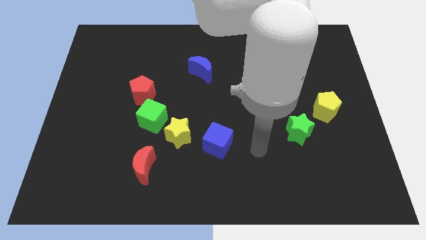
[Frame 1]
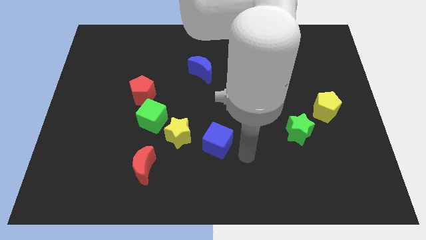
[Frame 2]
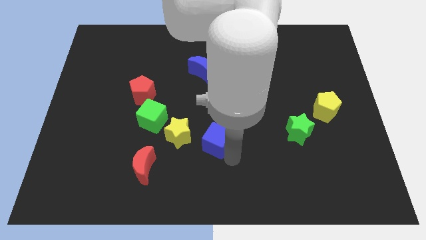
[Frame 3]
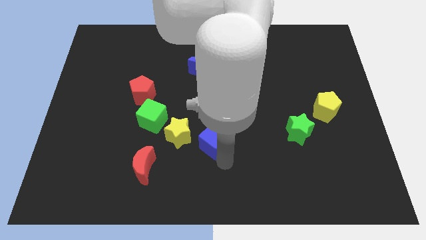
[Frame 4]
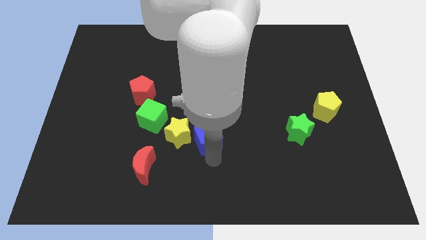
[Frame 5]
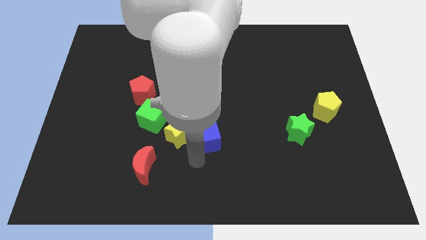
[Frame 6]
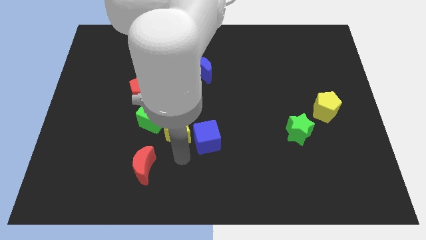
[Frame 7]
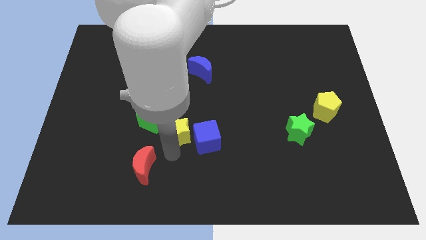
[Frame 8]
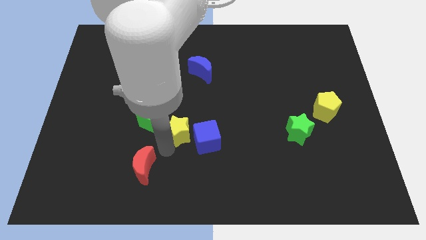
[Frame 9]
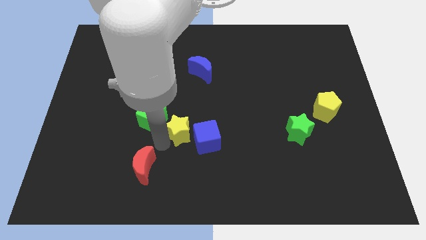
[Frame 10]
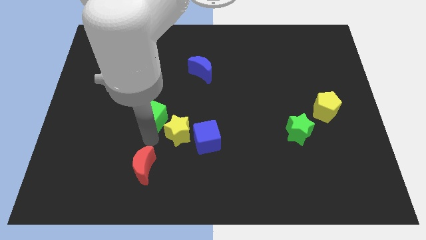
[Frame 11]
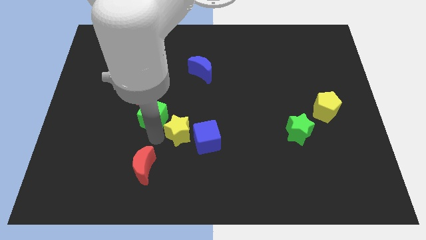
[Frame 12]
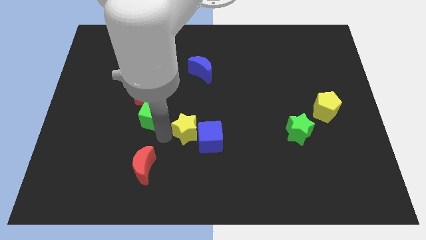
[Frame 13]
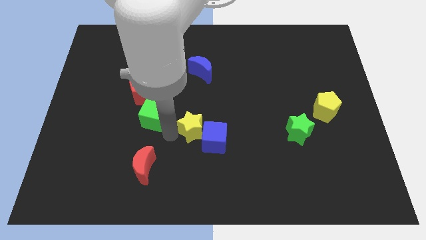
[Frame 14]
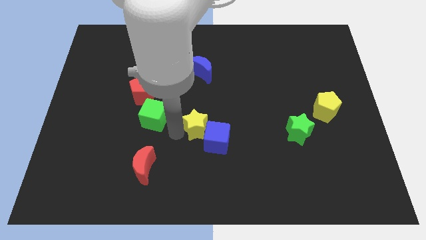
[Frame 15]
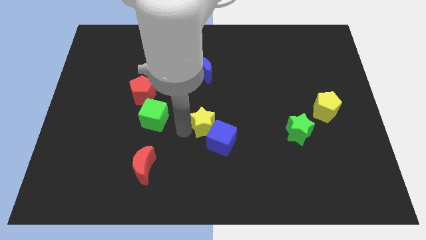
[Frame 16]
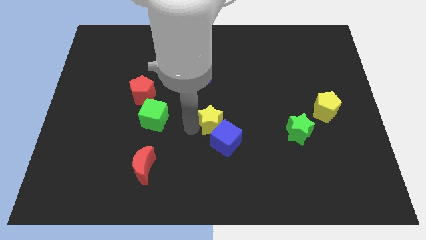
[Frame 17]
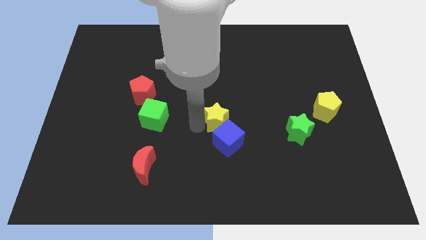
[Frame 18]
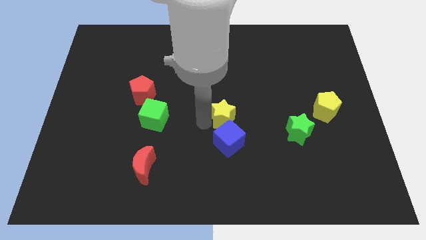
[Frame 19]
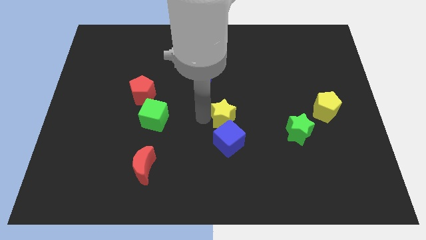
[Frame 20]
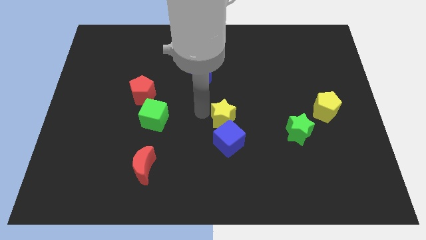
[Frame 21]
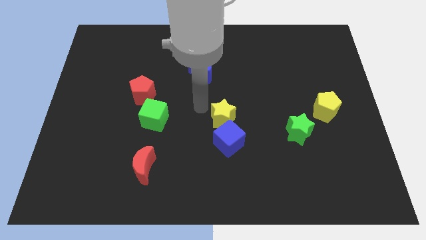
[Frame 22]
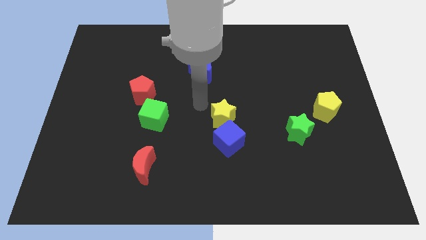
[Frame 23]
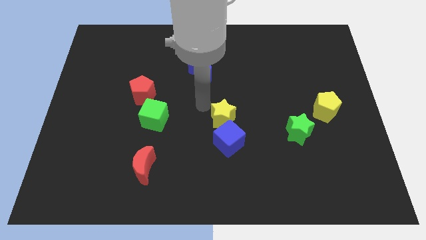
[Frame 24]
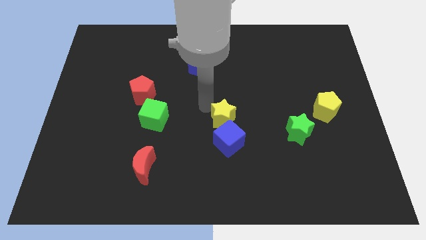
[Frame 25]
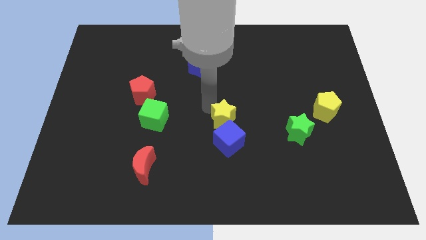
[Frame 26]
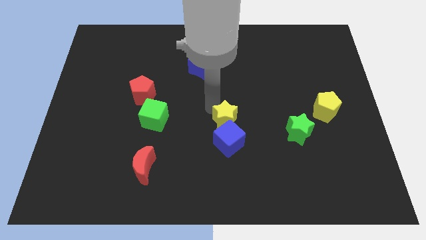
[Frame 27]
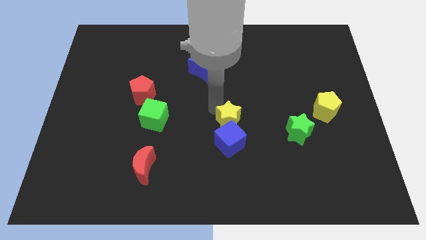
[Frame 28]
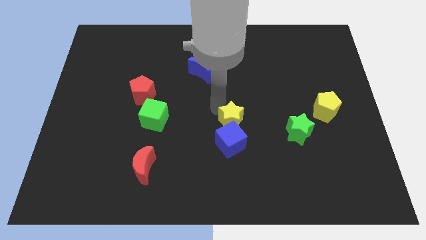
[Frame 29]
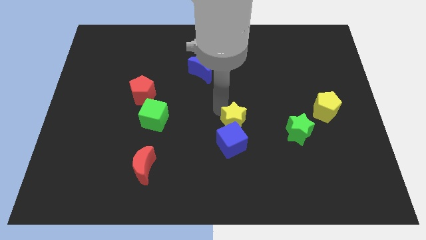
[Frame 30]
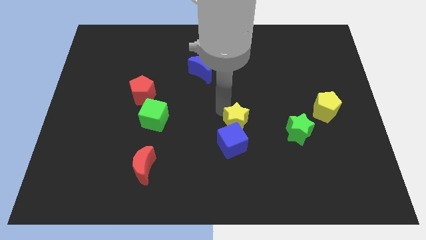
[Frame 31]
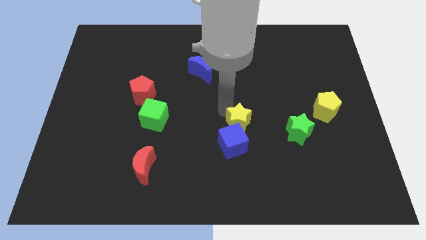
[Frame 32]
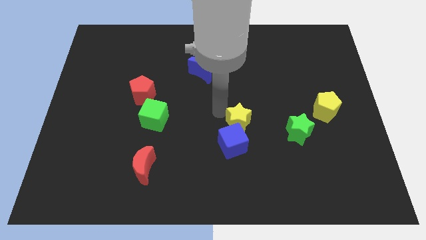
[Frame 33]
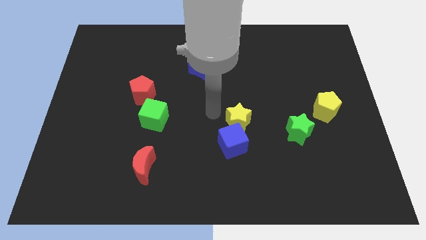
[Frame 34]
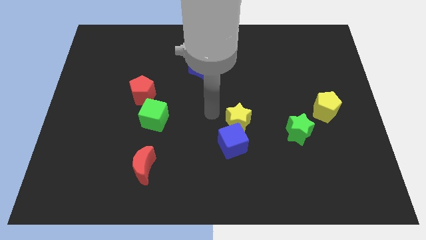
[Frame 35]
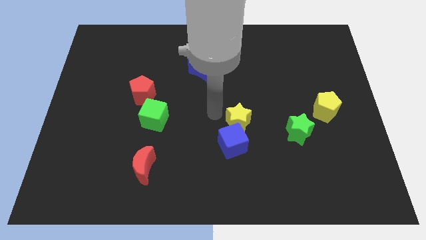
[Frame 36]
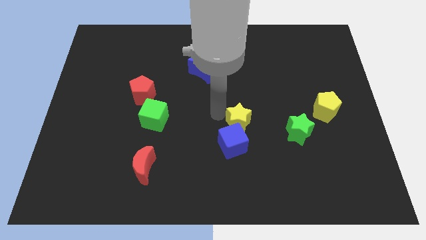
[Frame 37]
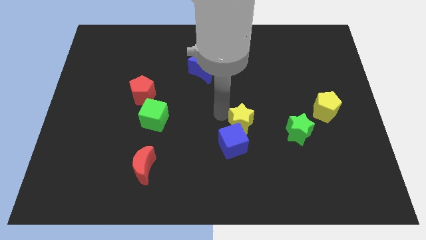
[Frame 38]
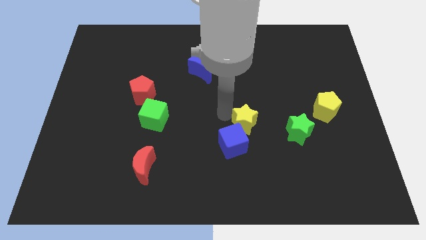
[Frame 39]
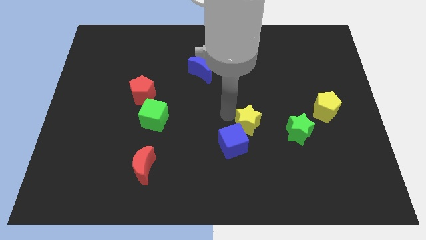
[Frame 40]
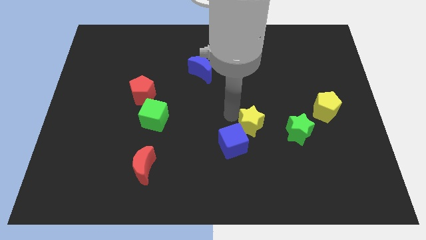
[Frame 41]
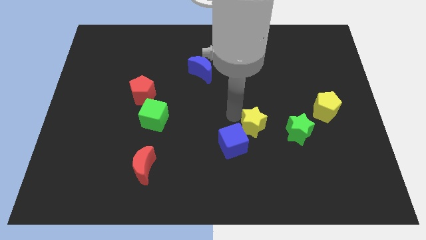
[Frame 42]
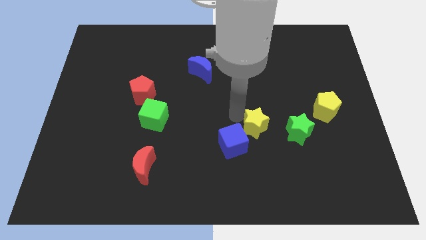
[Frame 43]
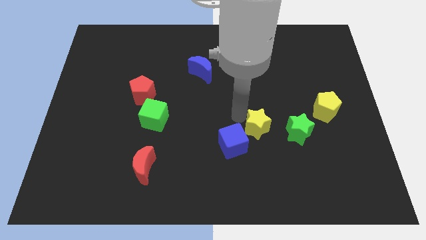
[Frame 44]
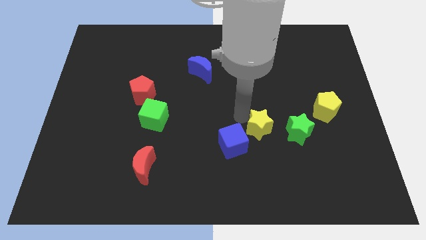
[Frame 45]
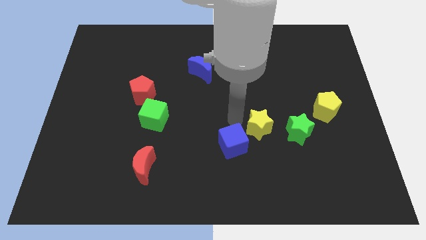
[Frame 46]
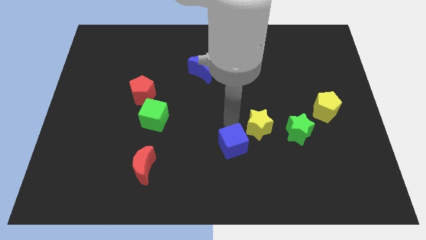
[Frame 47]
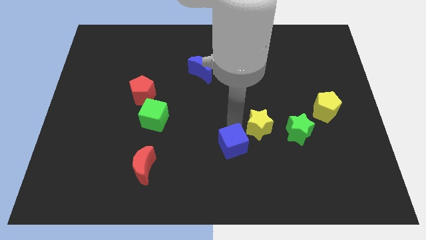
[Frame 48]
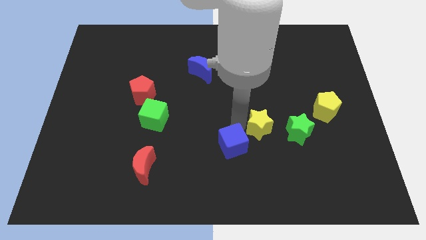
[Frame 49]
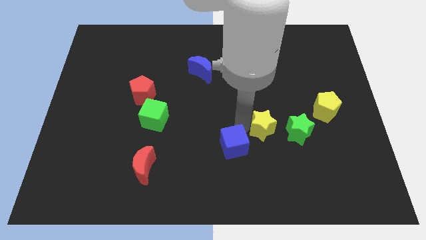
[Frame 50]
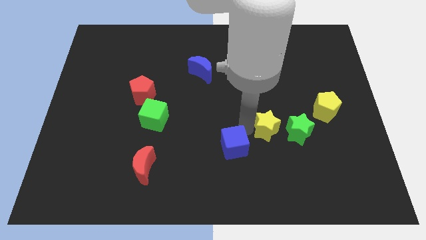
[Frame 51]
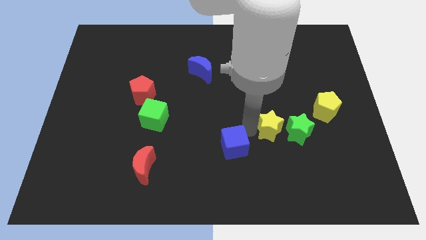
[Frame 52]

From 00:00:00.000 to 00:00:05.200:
put the yellow star towards the green star

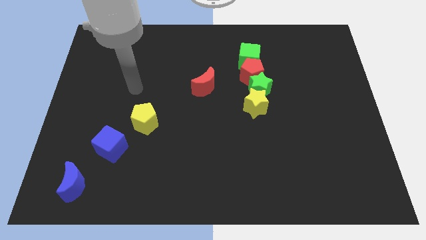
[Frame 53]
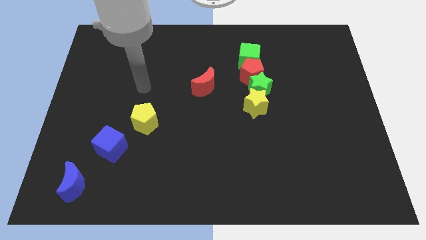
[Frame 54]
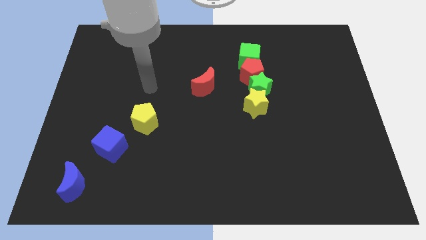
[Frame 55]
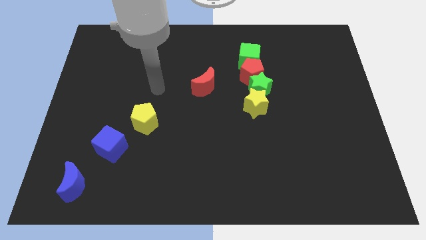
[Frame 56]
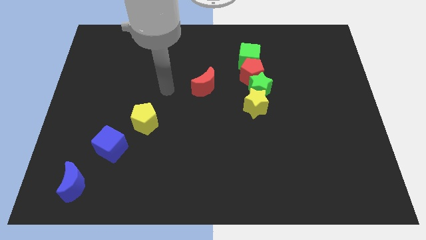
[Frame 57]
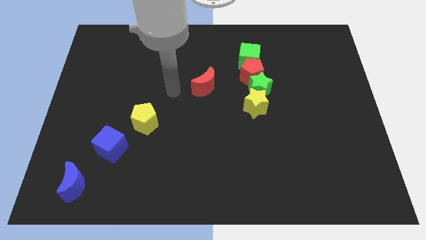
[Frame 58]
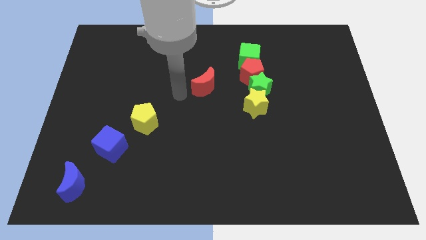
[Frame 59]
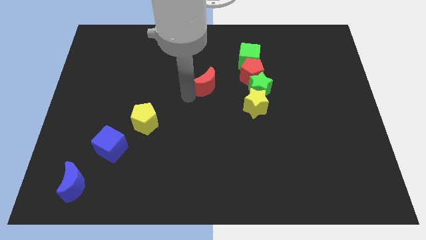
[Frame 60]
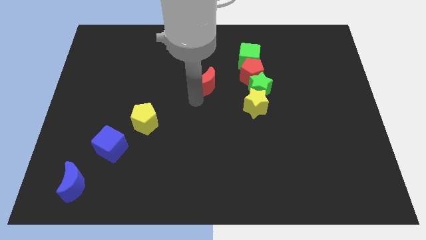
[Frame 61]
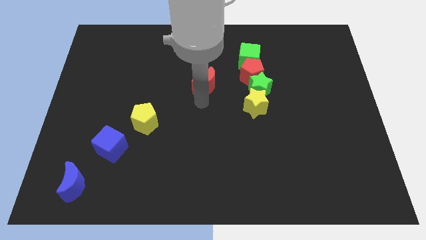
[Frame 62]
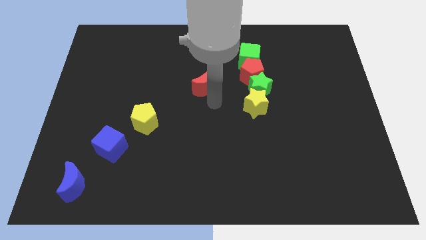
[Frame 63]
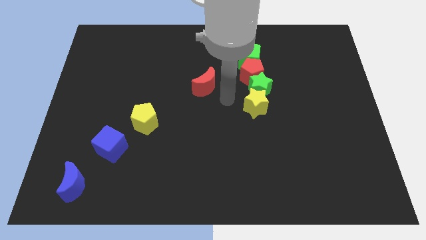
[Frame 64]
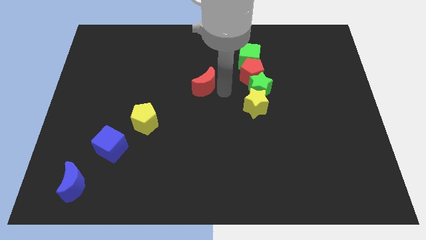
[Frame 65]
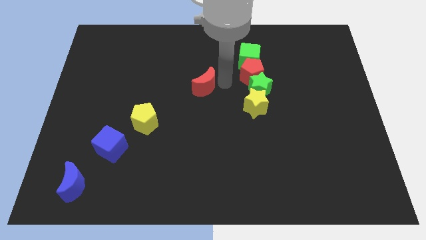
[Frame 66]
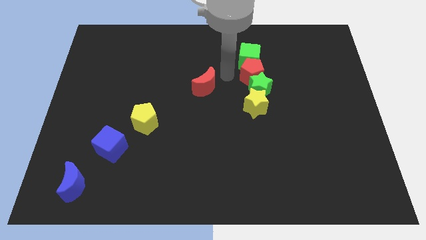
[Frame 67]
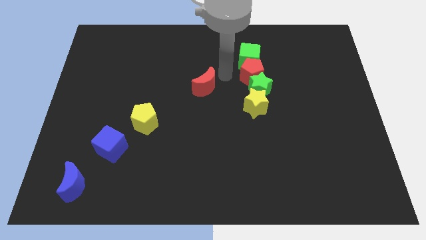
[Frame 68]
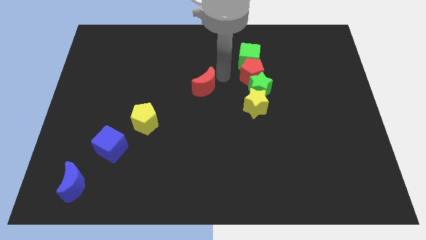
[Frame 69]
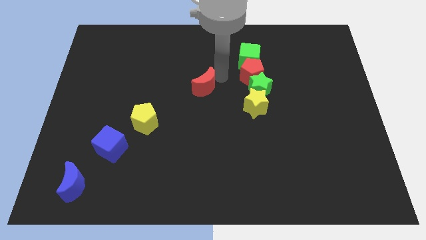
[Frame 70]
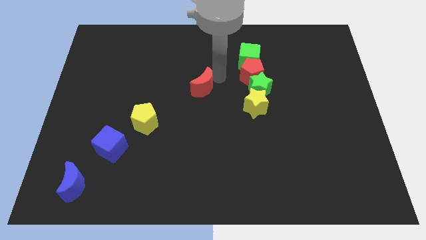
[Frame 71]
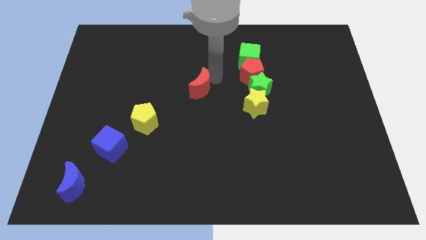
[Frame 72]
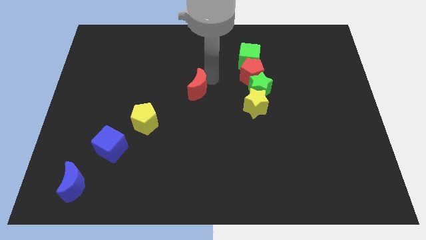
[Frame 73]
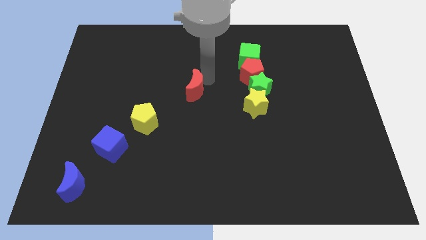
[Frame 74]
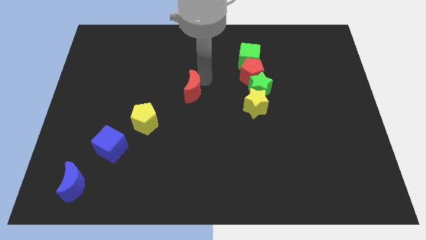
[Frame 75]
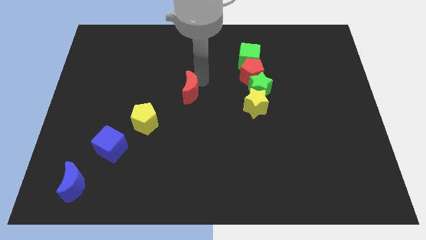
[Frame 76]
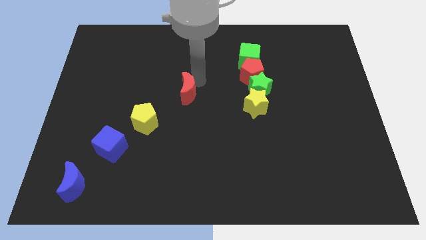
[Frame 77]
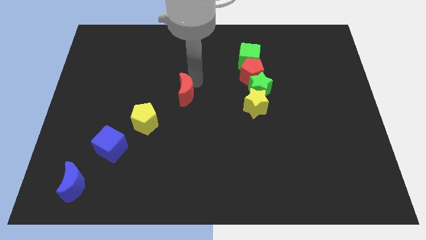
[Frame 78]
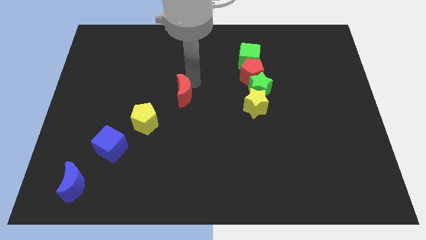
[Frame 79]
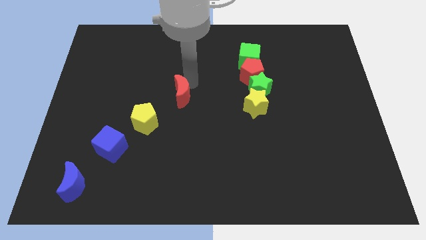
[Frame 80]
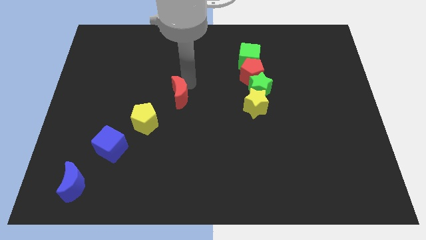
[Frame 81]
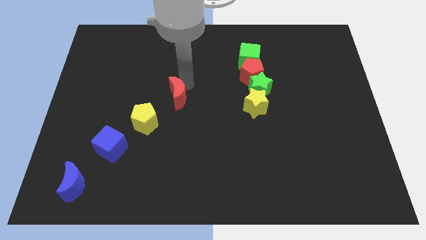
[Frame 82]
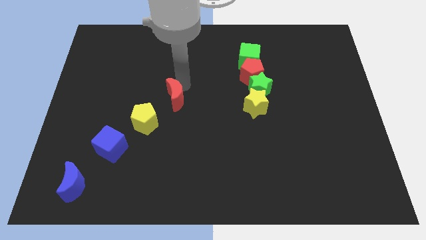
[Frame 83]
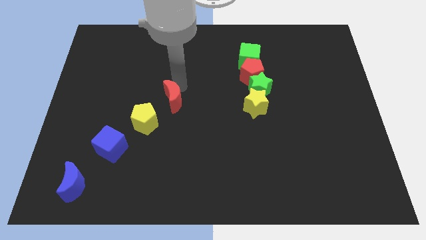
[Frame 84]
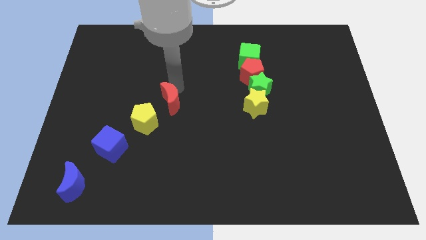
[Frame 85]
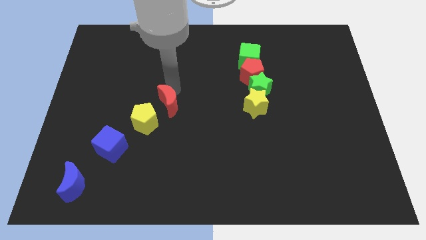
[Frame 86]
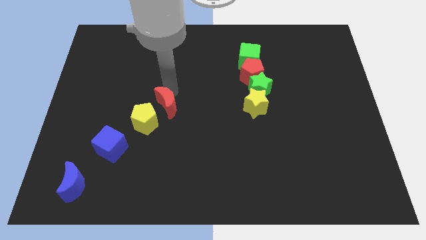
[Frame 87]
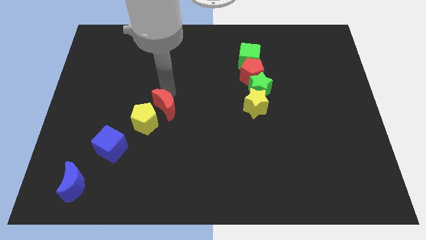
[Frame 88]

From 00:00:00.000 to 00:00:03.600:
push the red moon close to the yellow pentagon

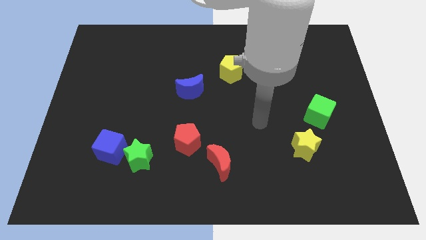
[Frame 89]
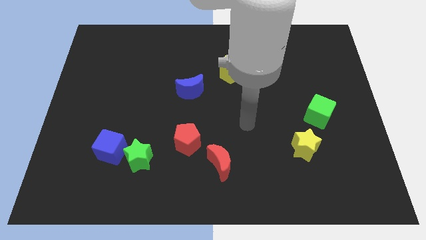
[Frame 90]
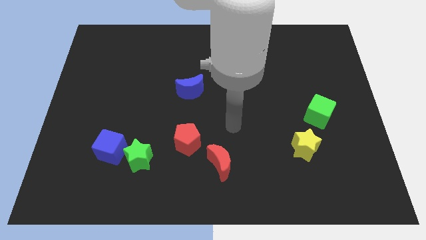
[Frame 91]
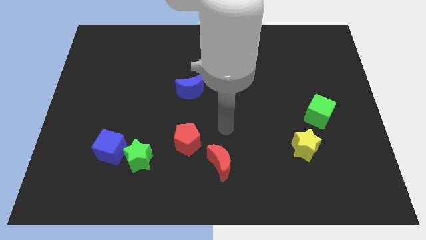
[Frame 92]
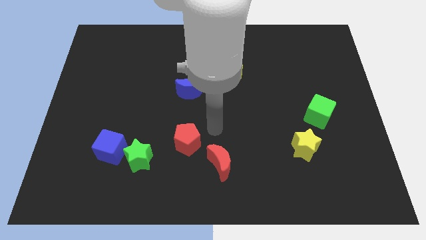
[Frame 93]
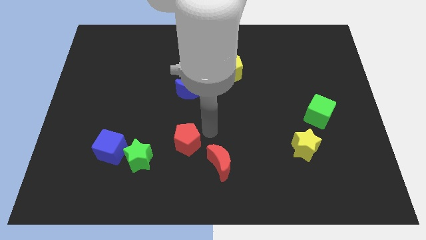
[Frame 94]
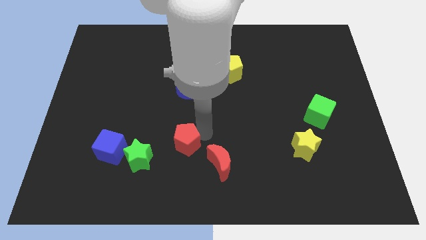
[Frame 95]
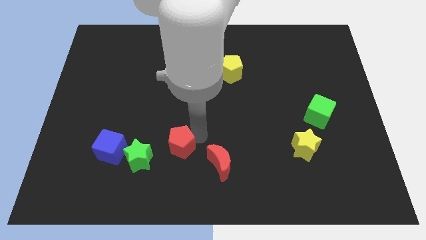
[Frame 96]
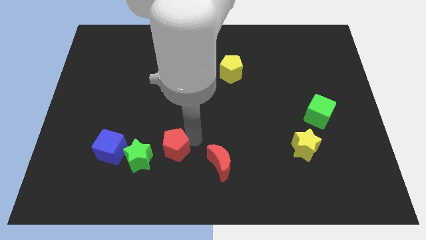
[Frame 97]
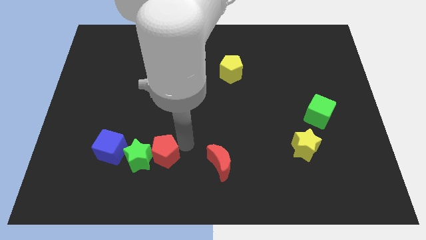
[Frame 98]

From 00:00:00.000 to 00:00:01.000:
put the red pentagon close to the green star
